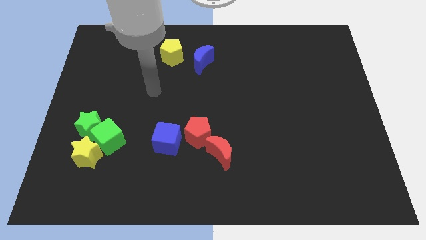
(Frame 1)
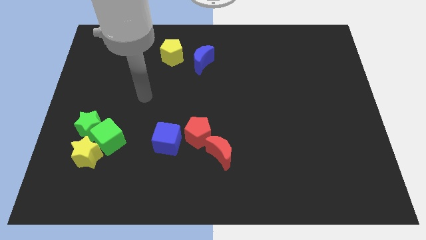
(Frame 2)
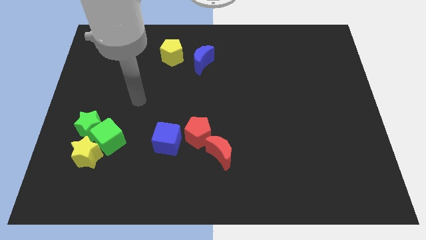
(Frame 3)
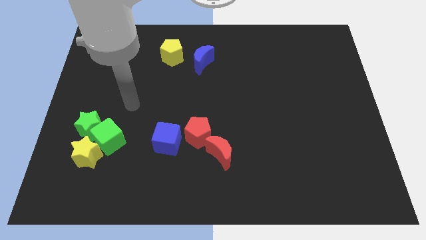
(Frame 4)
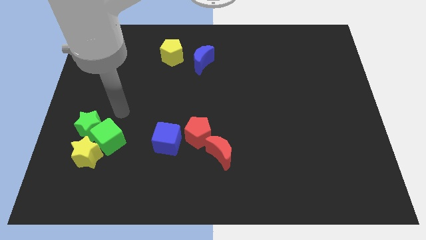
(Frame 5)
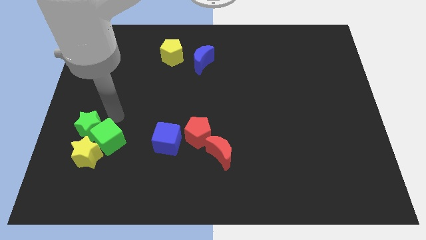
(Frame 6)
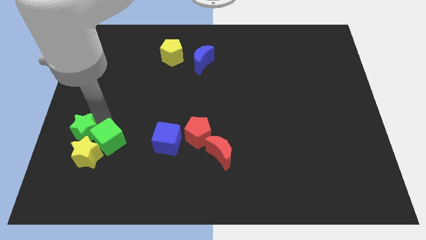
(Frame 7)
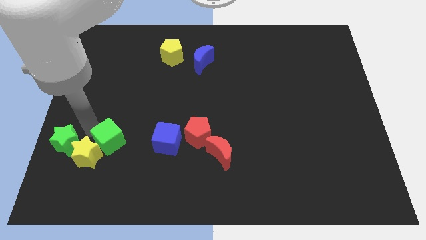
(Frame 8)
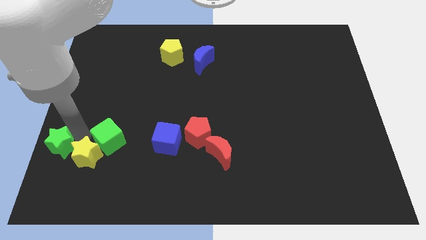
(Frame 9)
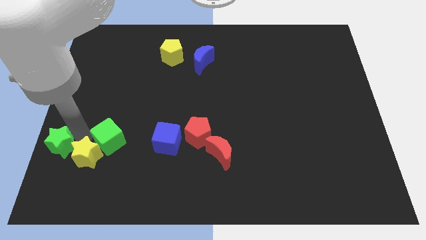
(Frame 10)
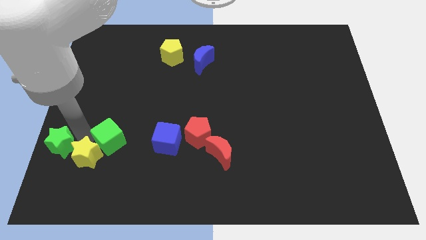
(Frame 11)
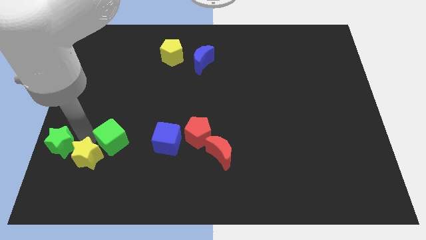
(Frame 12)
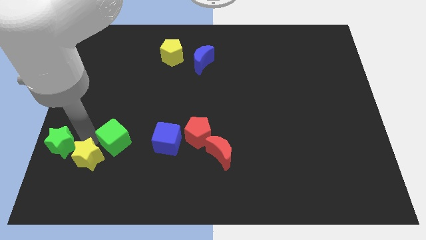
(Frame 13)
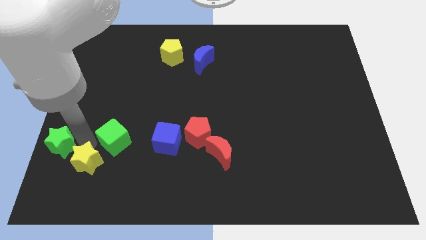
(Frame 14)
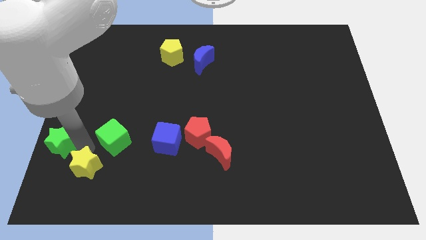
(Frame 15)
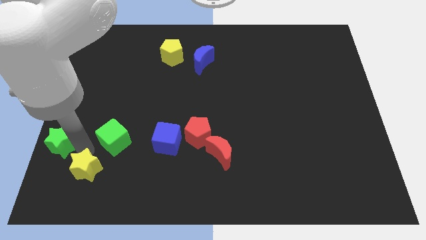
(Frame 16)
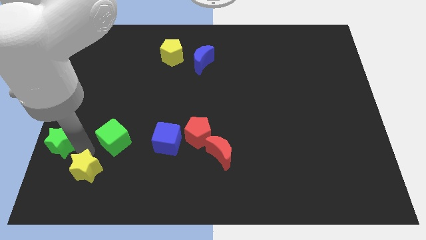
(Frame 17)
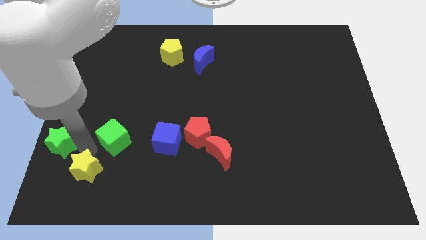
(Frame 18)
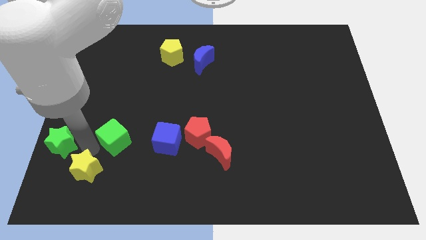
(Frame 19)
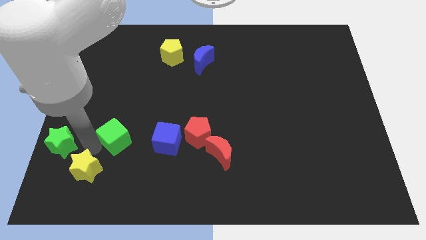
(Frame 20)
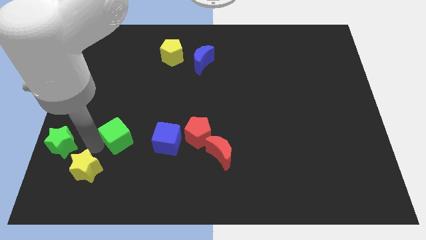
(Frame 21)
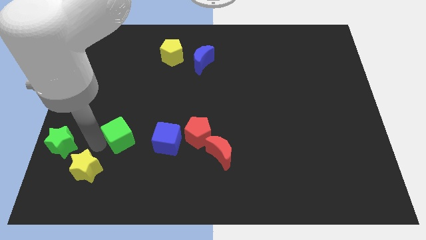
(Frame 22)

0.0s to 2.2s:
separate the green cube from the yellow star and green star

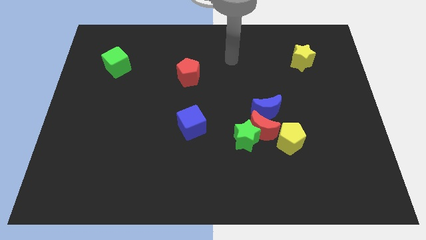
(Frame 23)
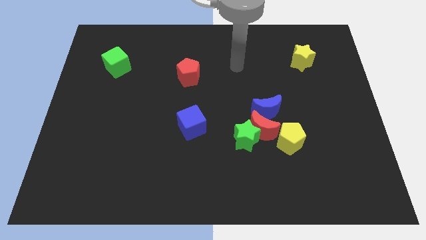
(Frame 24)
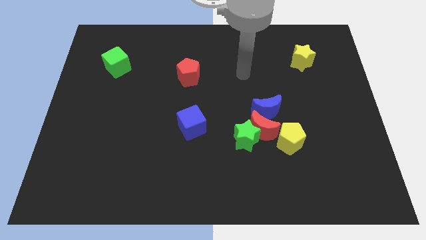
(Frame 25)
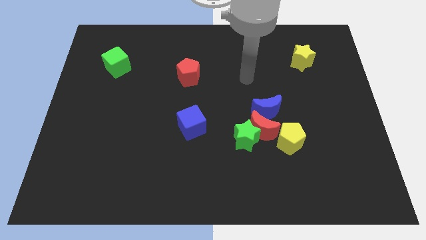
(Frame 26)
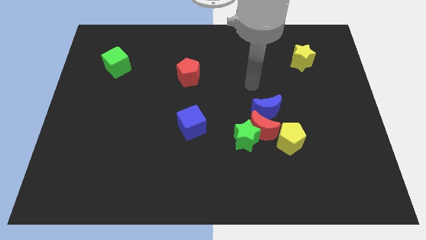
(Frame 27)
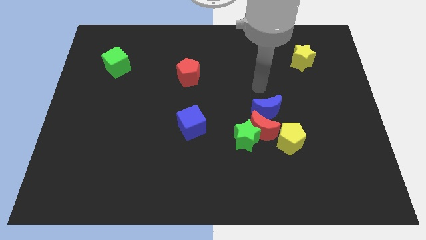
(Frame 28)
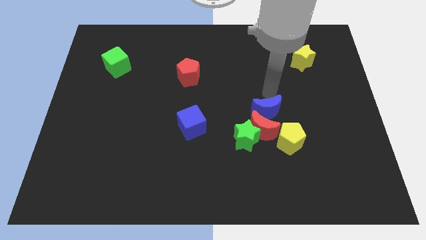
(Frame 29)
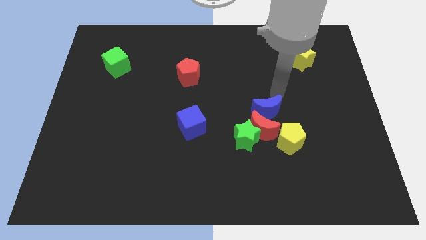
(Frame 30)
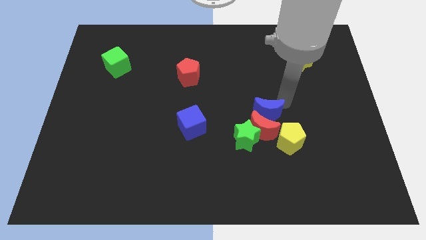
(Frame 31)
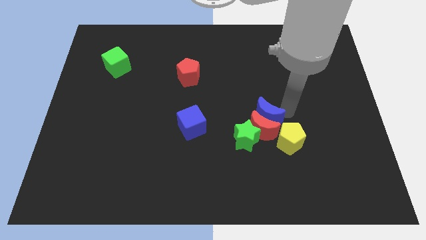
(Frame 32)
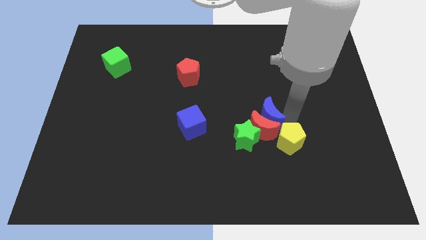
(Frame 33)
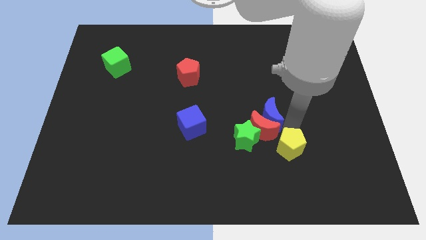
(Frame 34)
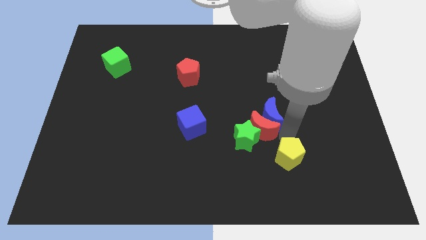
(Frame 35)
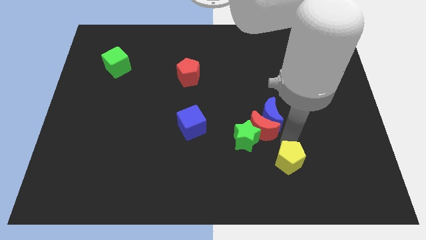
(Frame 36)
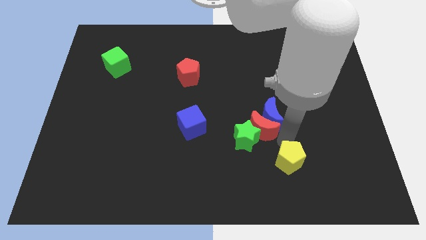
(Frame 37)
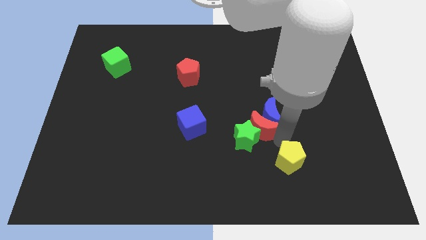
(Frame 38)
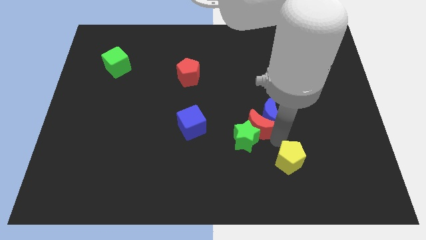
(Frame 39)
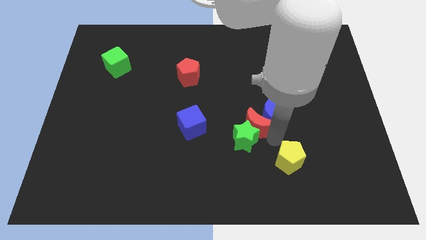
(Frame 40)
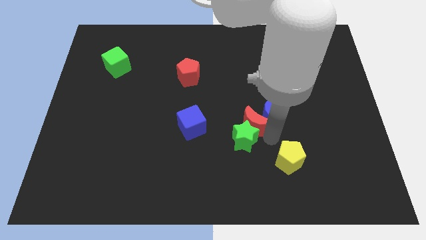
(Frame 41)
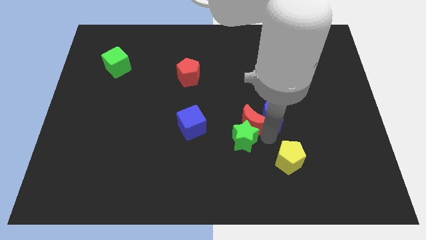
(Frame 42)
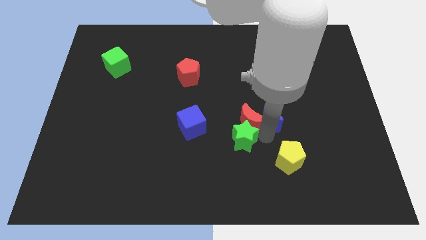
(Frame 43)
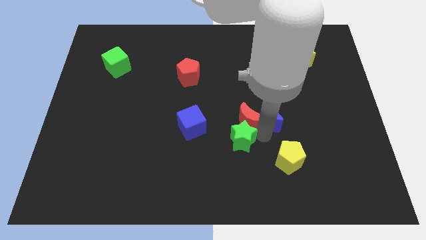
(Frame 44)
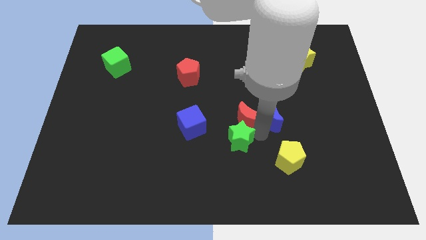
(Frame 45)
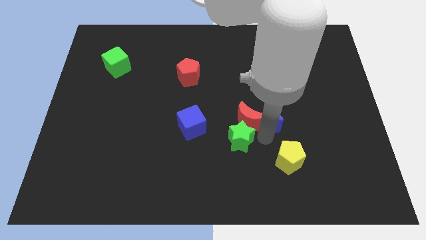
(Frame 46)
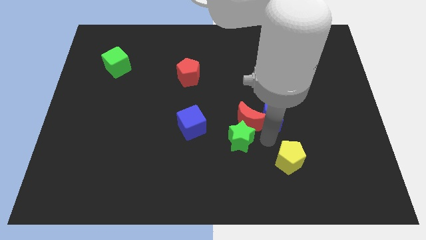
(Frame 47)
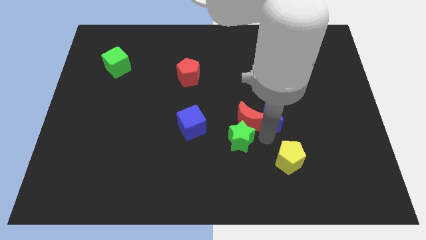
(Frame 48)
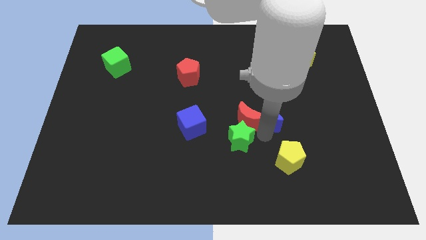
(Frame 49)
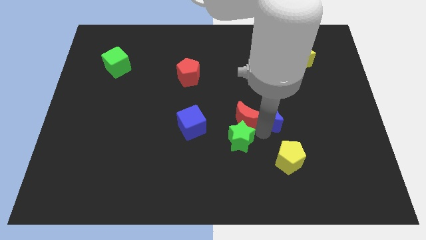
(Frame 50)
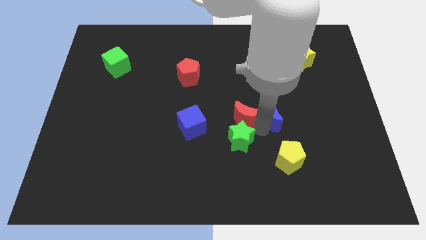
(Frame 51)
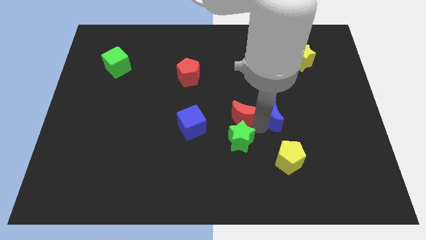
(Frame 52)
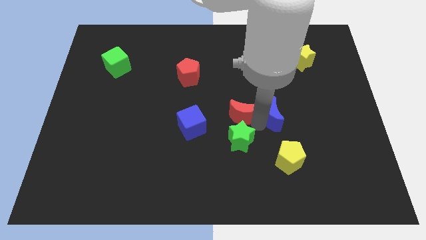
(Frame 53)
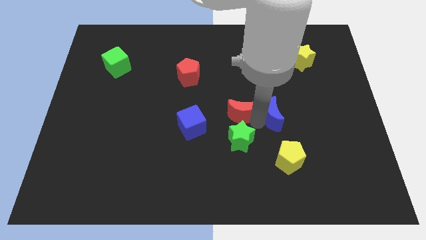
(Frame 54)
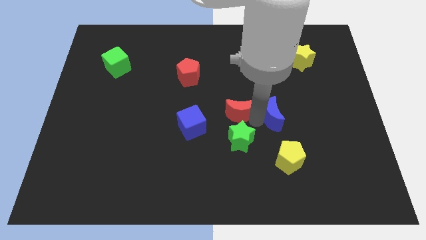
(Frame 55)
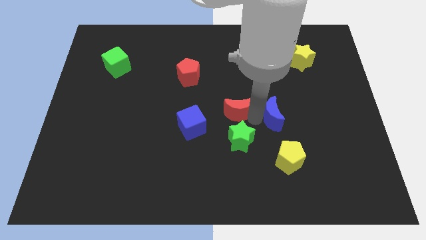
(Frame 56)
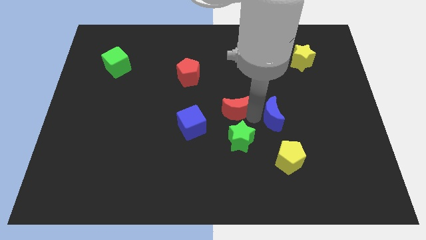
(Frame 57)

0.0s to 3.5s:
separate the red moon from the green star, blue moon, and yellow pentagon

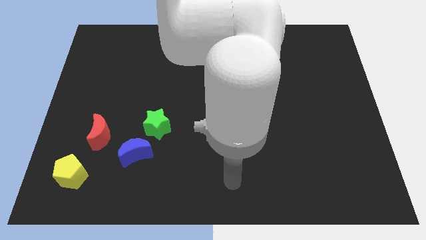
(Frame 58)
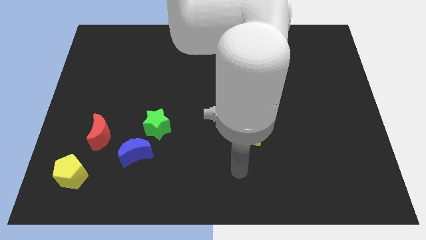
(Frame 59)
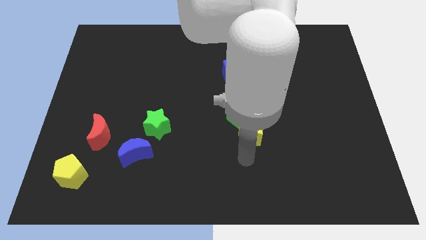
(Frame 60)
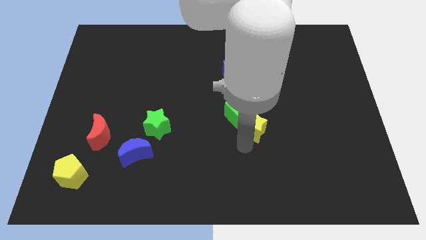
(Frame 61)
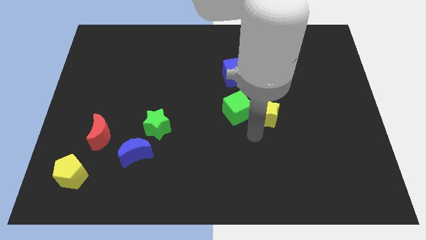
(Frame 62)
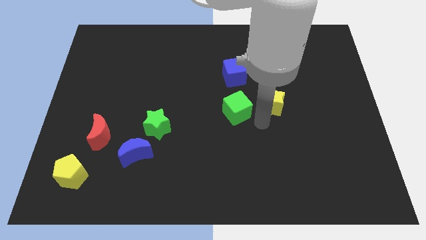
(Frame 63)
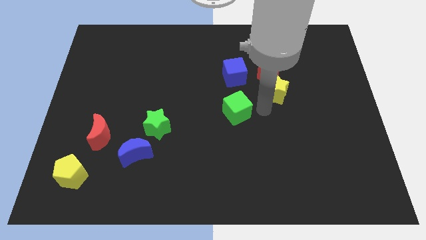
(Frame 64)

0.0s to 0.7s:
pull the green cube apart from the yellow star

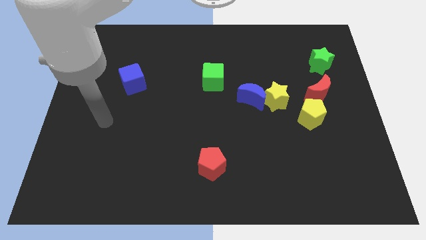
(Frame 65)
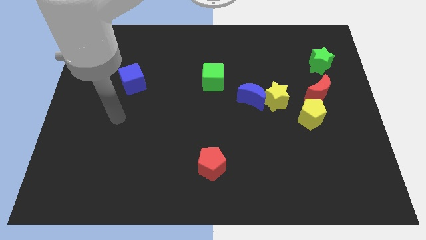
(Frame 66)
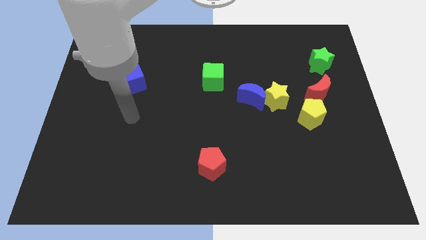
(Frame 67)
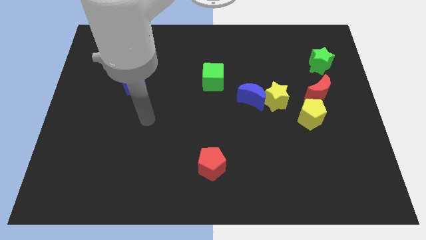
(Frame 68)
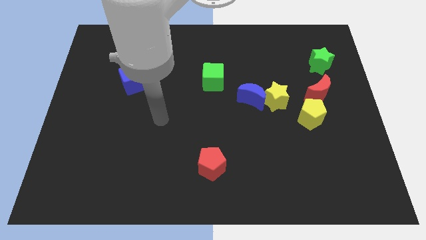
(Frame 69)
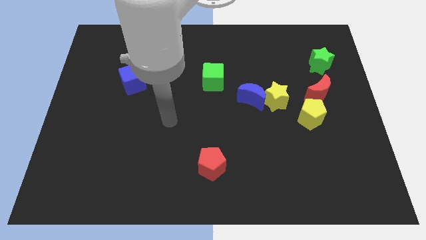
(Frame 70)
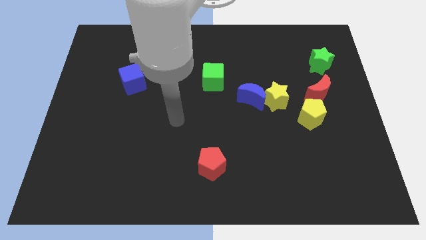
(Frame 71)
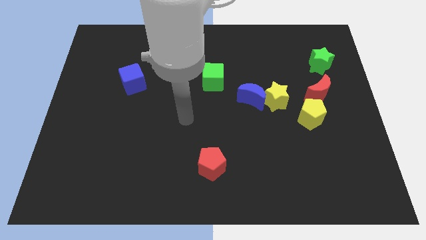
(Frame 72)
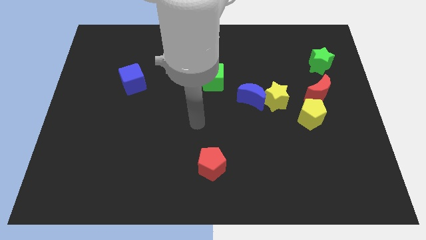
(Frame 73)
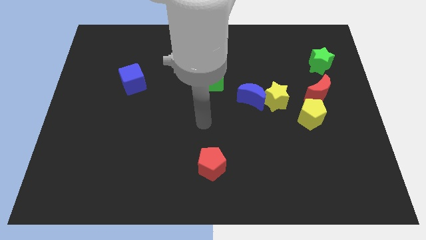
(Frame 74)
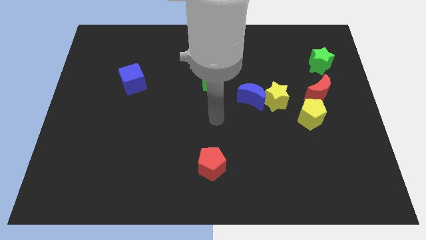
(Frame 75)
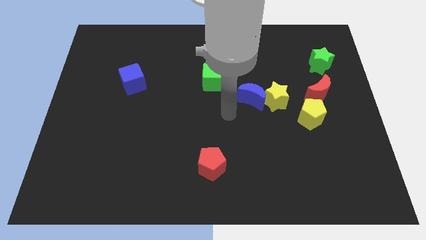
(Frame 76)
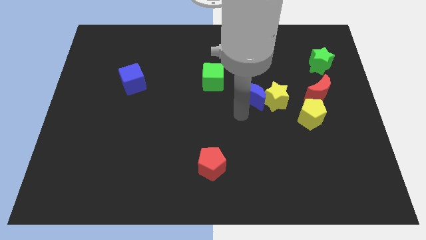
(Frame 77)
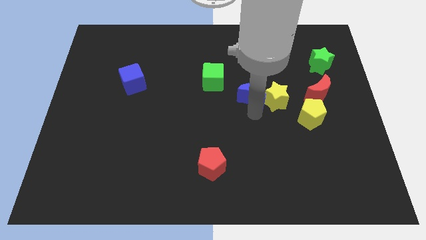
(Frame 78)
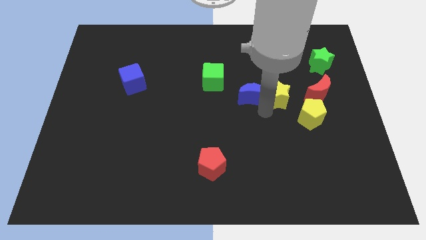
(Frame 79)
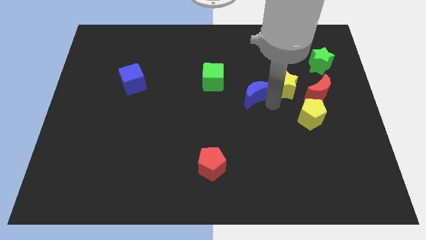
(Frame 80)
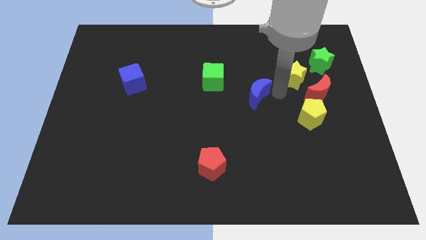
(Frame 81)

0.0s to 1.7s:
separate the blue moon from the yellow star

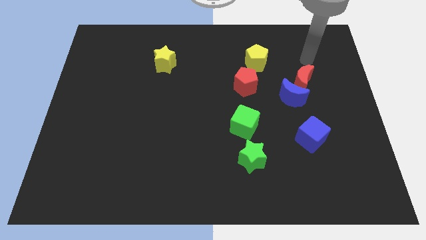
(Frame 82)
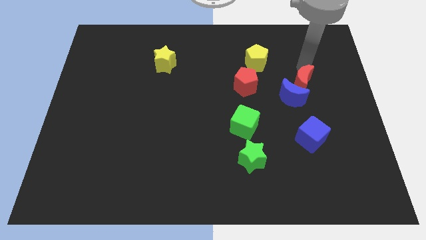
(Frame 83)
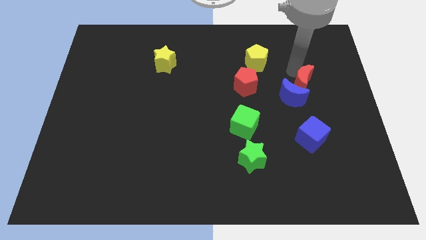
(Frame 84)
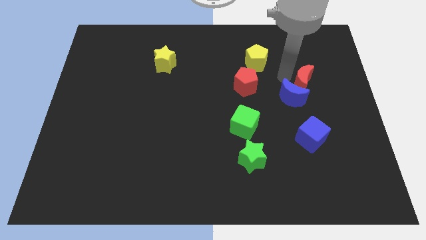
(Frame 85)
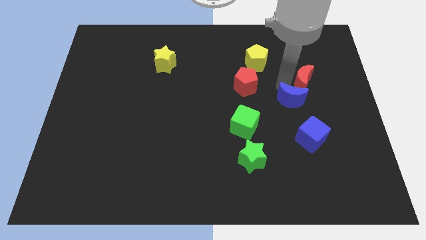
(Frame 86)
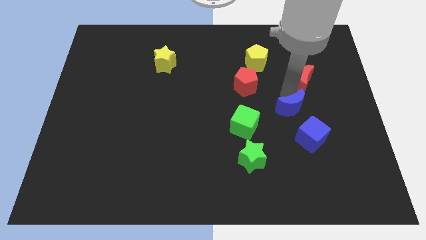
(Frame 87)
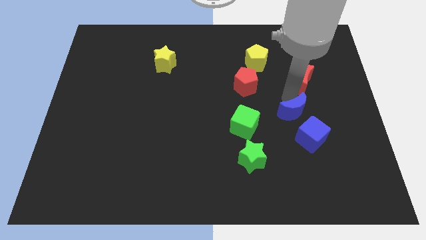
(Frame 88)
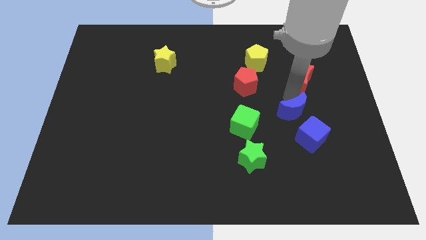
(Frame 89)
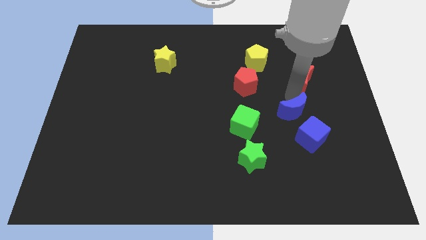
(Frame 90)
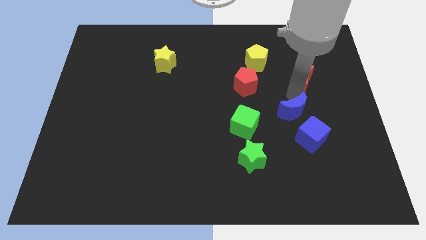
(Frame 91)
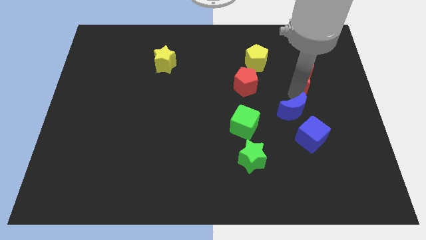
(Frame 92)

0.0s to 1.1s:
move the red moon away from the blue moon
